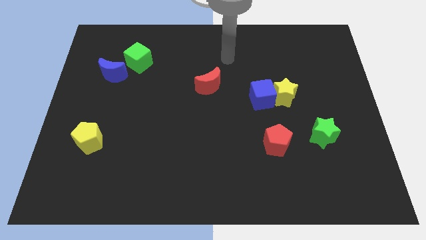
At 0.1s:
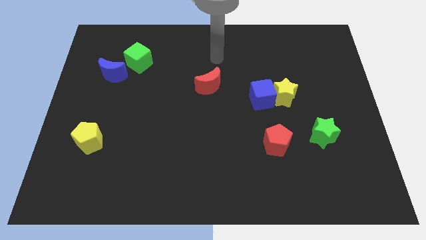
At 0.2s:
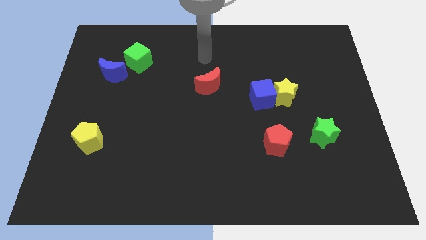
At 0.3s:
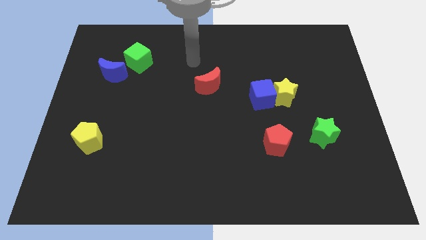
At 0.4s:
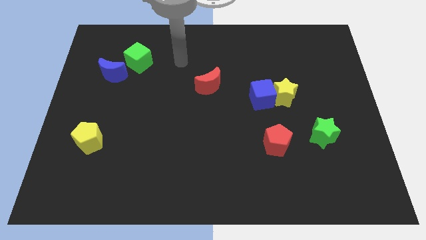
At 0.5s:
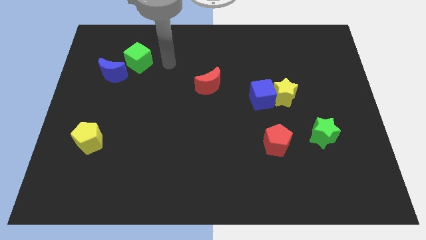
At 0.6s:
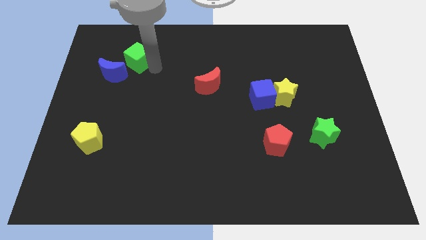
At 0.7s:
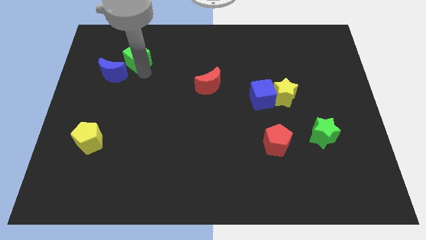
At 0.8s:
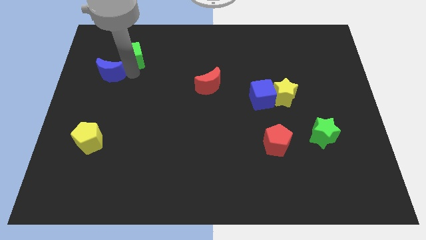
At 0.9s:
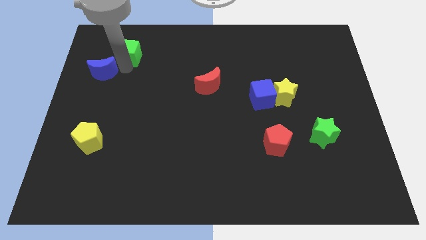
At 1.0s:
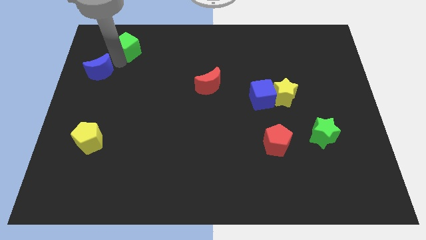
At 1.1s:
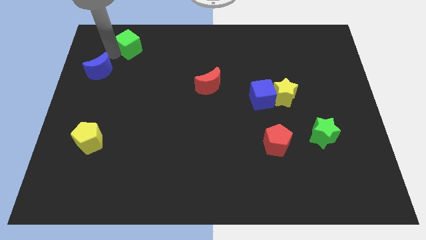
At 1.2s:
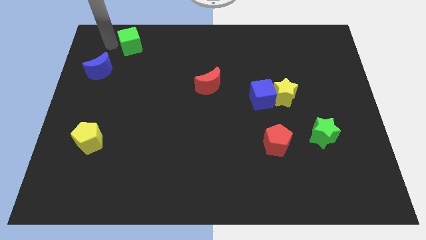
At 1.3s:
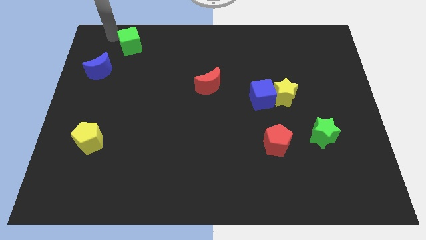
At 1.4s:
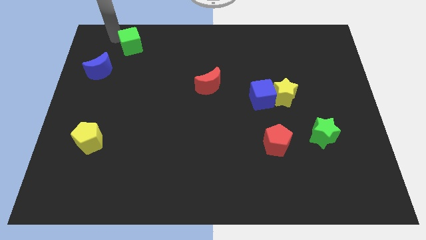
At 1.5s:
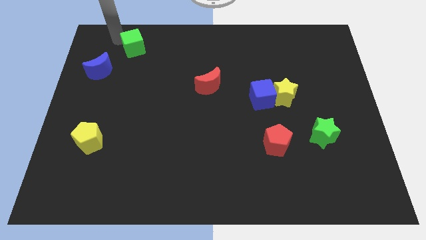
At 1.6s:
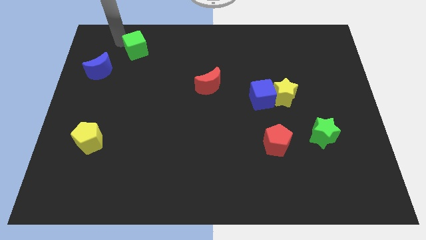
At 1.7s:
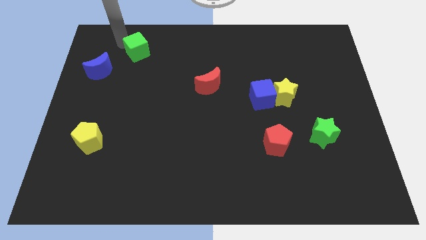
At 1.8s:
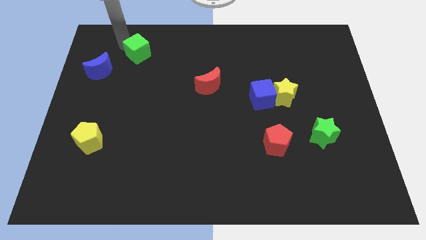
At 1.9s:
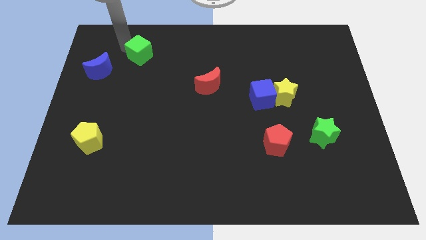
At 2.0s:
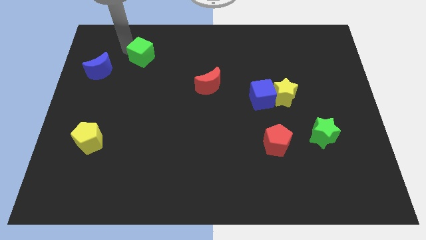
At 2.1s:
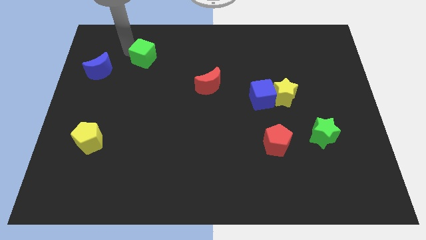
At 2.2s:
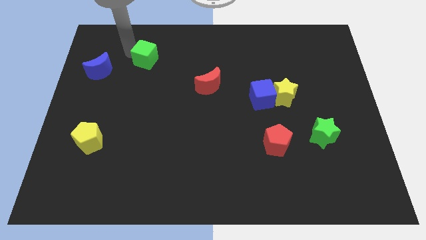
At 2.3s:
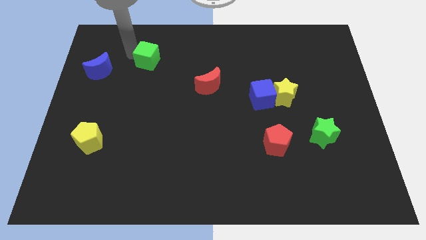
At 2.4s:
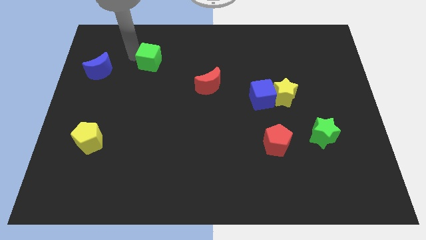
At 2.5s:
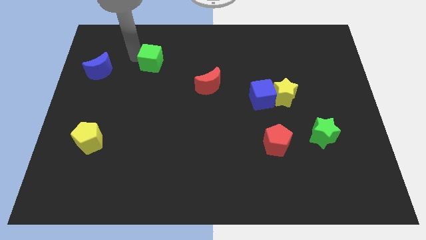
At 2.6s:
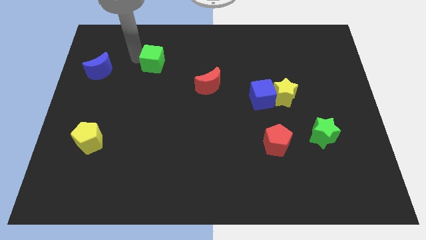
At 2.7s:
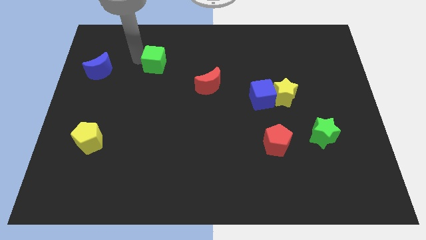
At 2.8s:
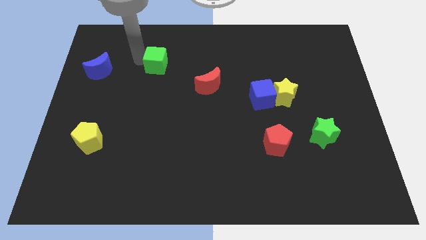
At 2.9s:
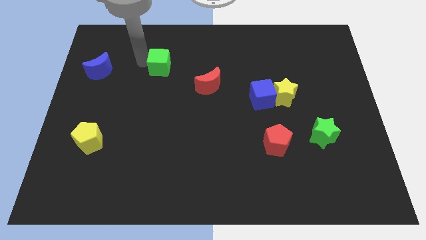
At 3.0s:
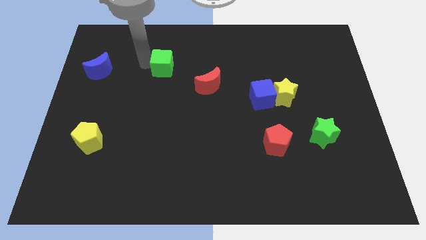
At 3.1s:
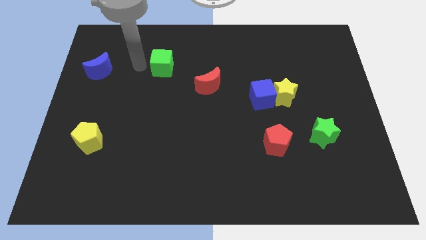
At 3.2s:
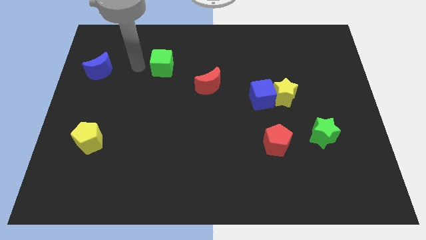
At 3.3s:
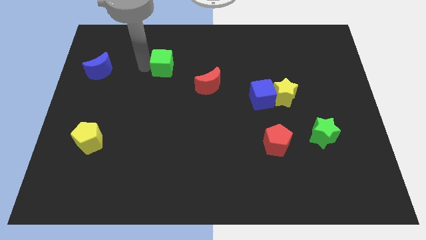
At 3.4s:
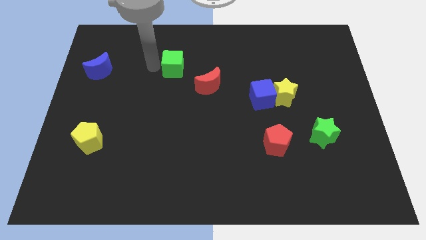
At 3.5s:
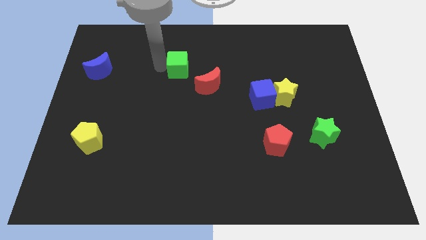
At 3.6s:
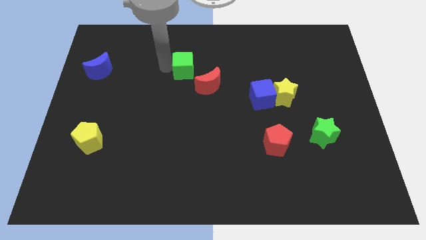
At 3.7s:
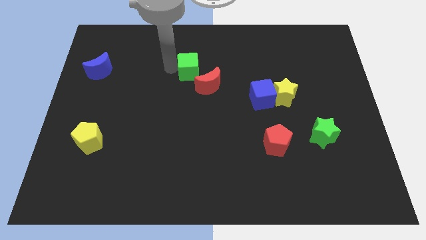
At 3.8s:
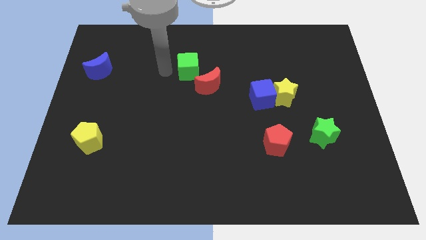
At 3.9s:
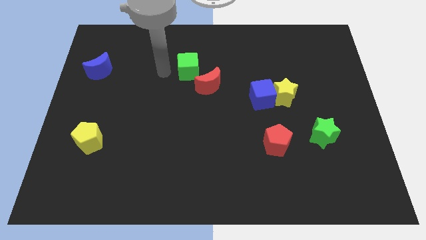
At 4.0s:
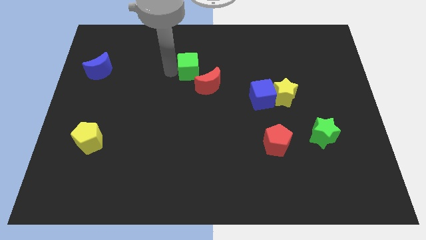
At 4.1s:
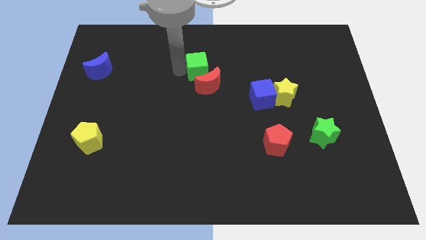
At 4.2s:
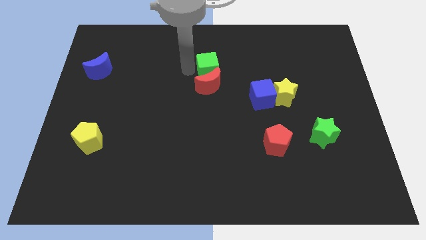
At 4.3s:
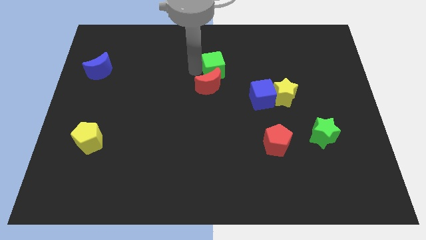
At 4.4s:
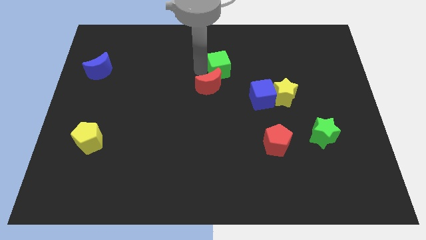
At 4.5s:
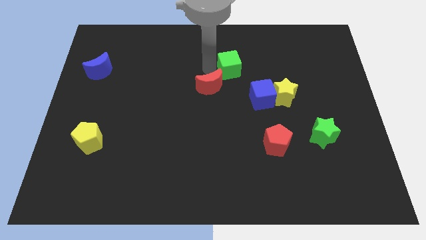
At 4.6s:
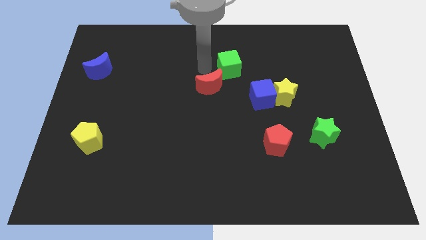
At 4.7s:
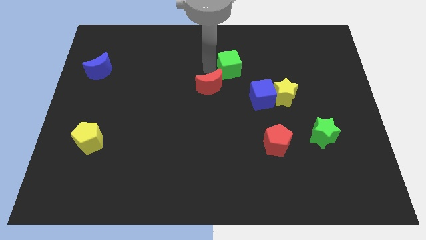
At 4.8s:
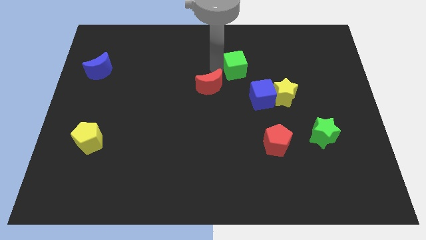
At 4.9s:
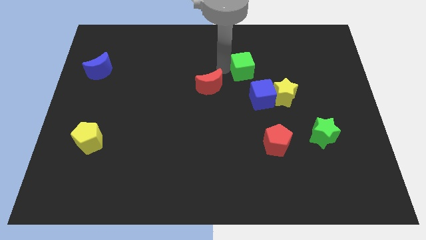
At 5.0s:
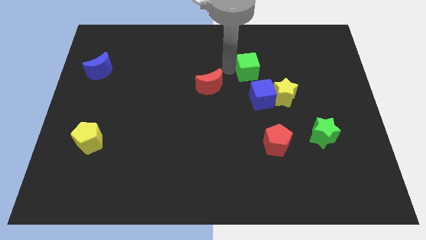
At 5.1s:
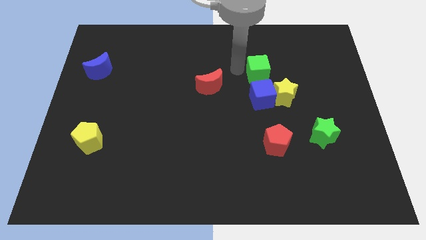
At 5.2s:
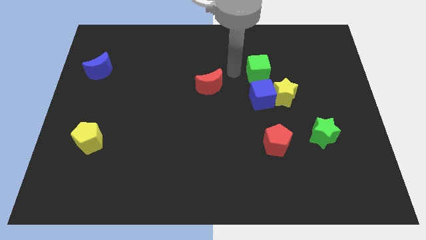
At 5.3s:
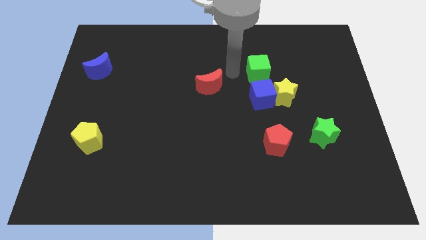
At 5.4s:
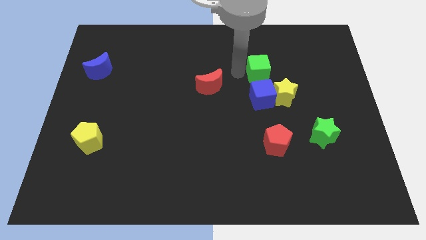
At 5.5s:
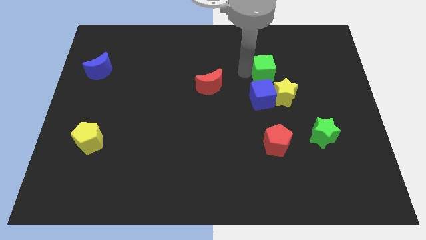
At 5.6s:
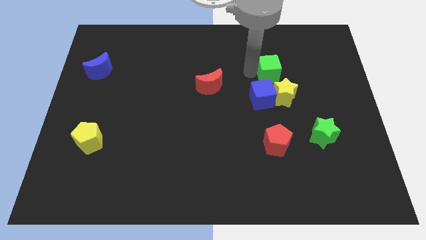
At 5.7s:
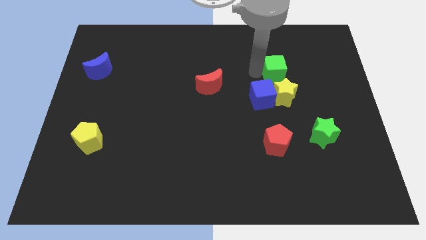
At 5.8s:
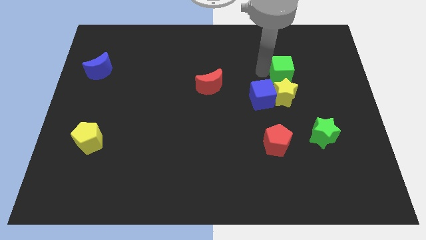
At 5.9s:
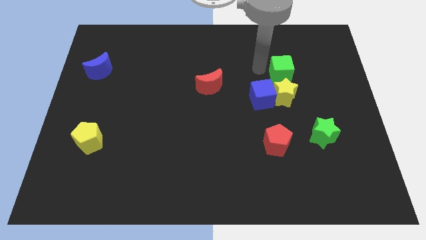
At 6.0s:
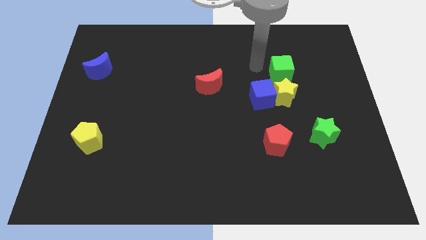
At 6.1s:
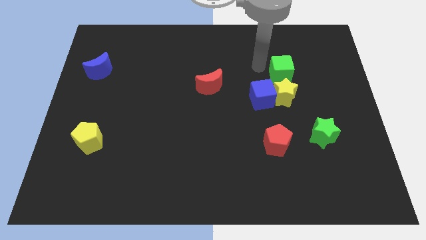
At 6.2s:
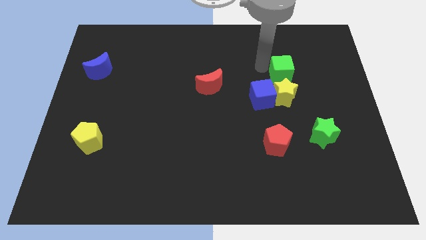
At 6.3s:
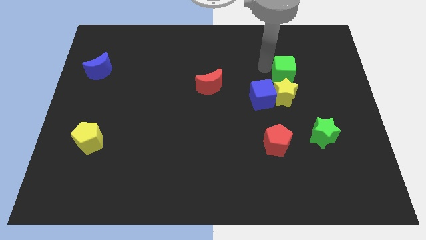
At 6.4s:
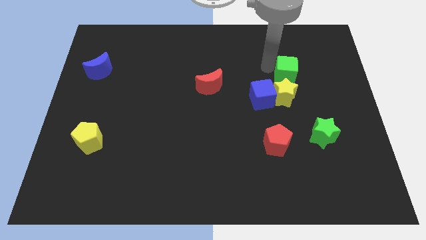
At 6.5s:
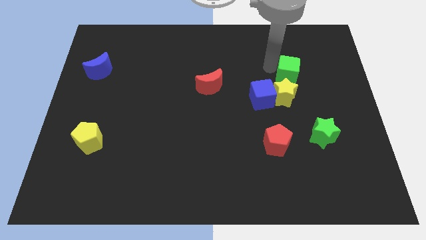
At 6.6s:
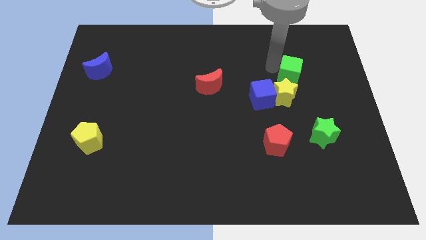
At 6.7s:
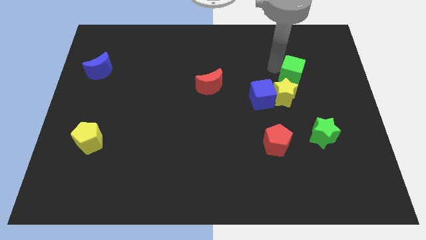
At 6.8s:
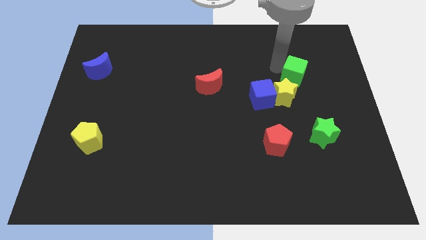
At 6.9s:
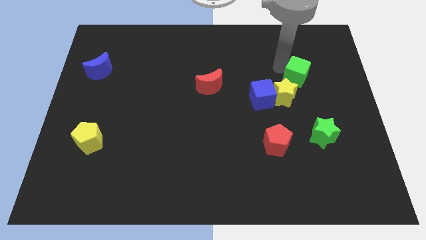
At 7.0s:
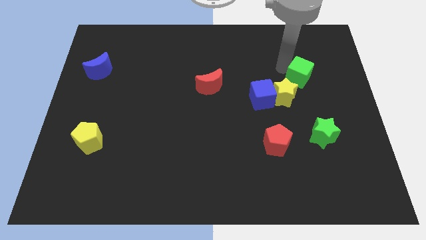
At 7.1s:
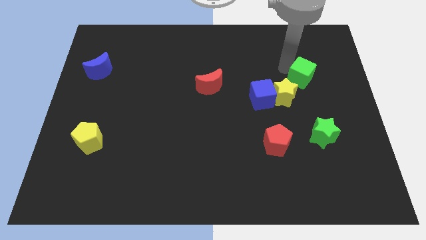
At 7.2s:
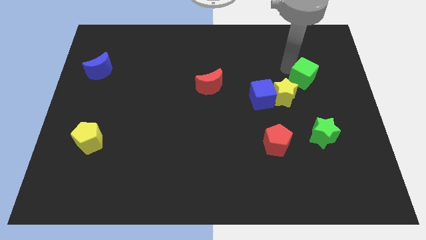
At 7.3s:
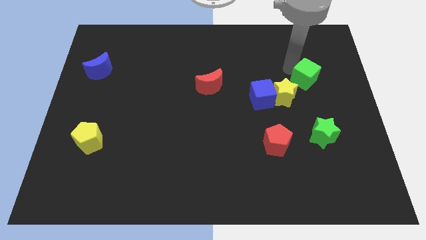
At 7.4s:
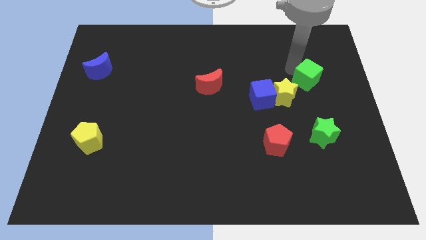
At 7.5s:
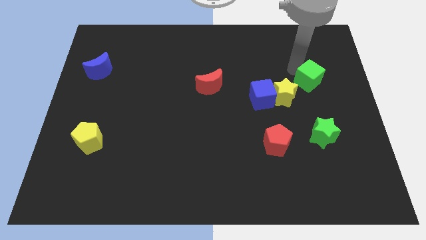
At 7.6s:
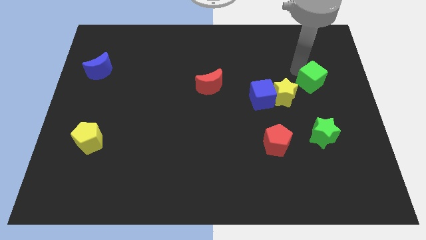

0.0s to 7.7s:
put the green cube to the right of the yellow star
